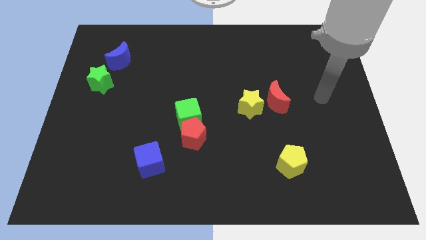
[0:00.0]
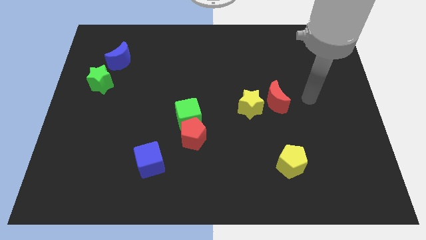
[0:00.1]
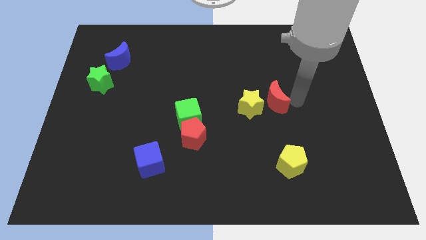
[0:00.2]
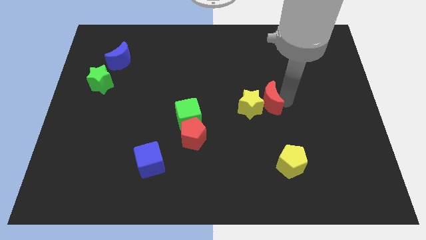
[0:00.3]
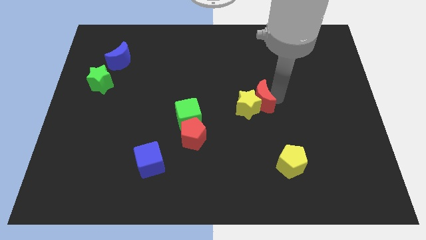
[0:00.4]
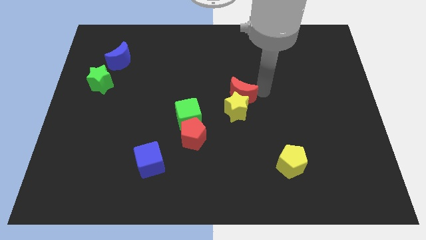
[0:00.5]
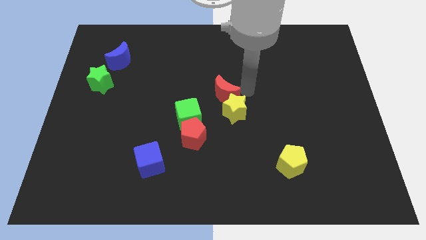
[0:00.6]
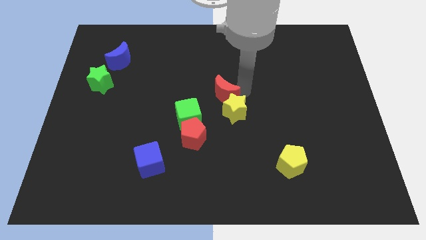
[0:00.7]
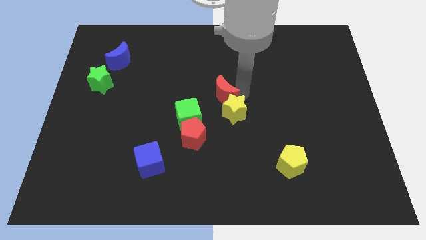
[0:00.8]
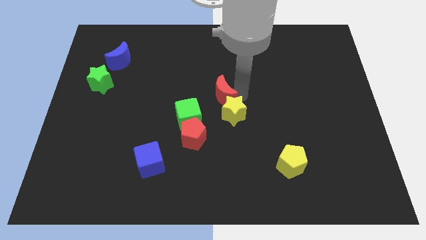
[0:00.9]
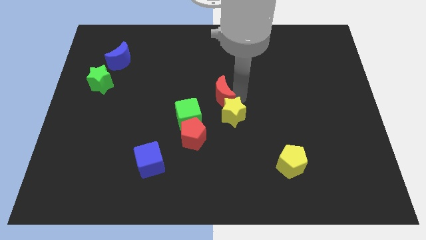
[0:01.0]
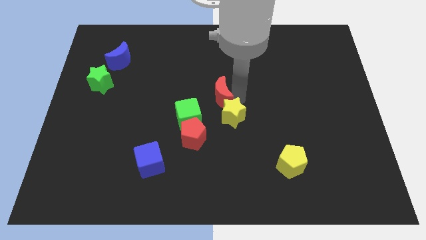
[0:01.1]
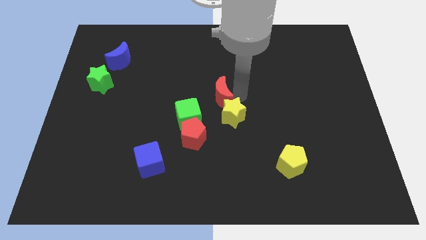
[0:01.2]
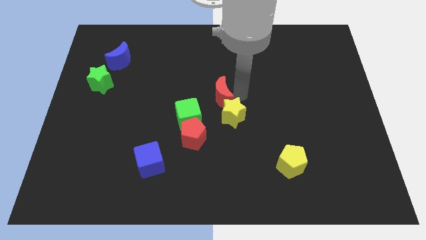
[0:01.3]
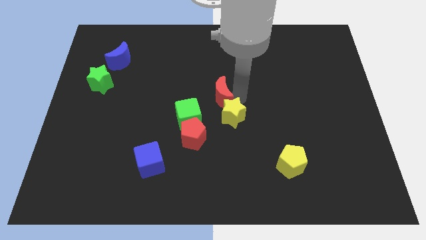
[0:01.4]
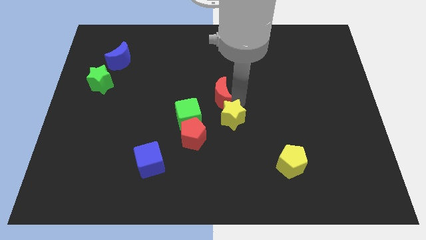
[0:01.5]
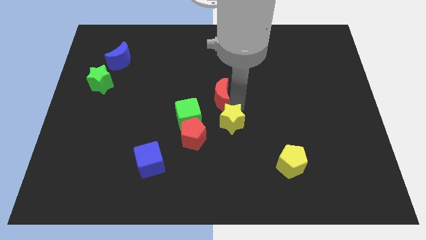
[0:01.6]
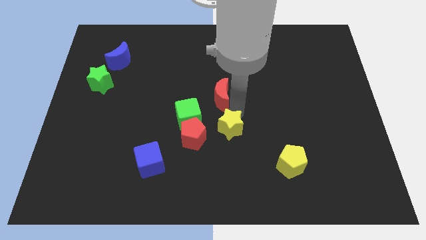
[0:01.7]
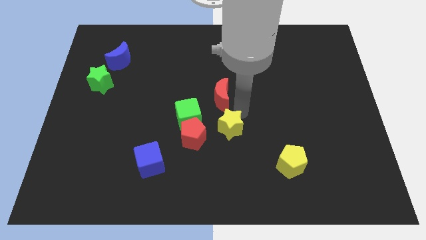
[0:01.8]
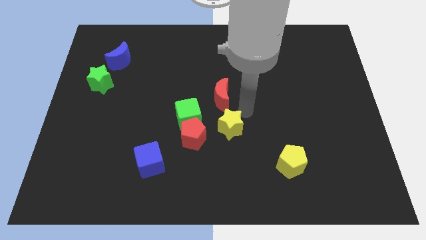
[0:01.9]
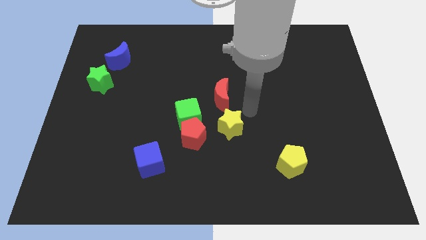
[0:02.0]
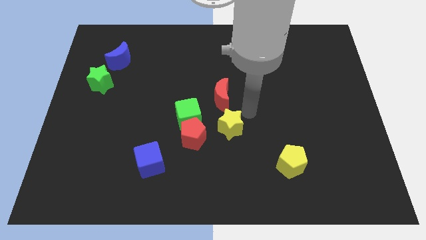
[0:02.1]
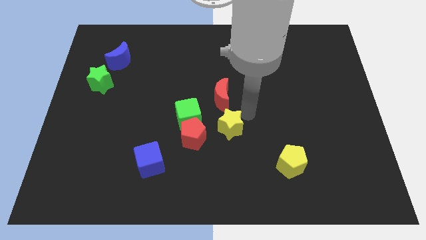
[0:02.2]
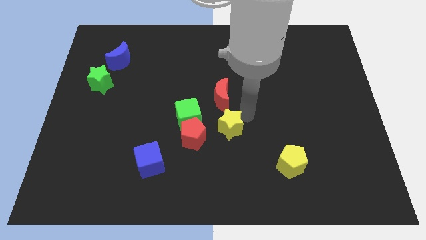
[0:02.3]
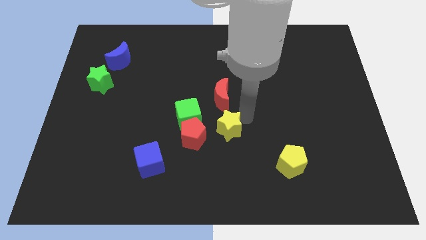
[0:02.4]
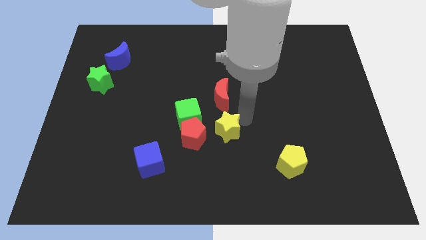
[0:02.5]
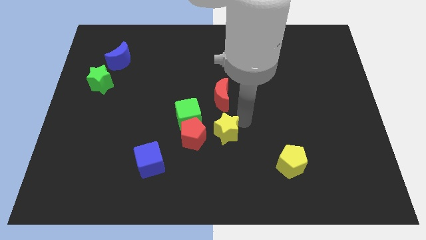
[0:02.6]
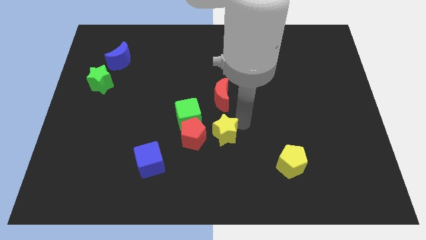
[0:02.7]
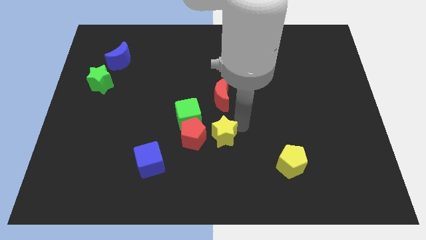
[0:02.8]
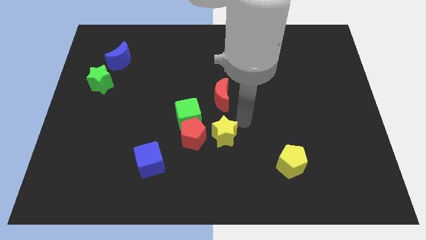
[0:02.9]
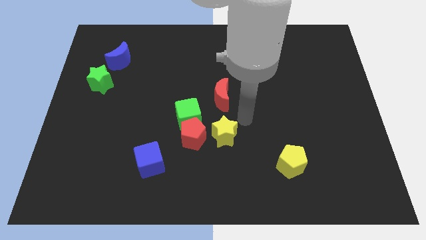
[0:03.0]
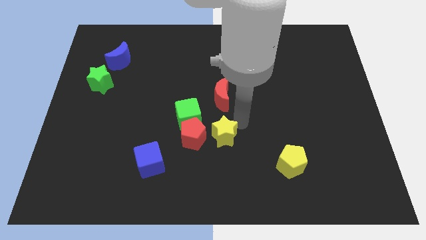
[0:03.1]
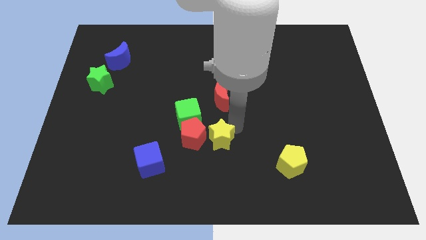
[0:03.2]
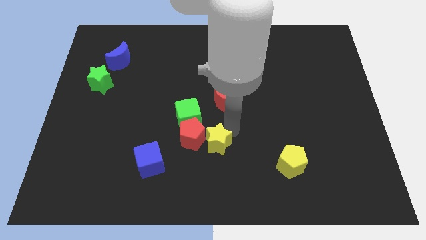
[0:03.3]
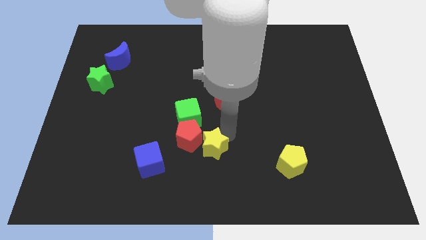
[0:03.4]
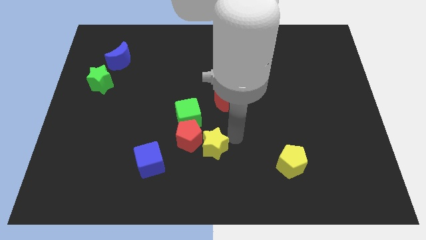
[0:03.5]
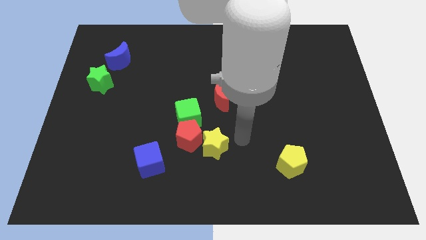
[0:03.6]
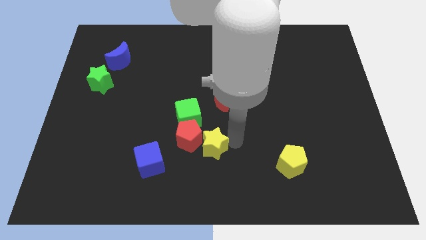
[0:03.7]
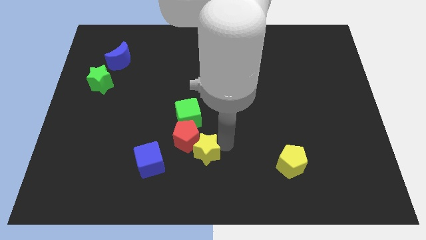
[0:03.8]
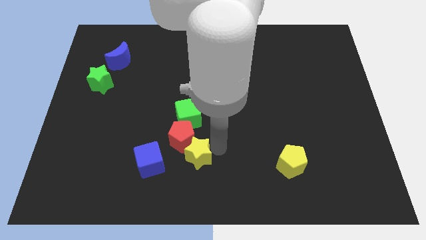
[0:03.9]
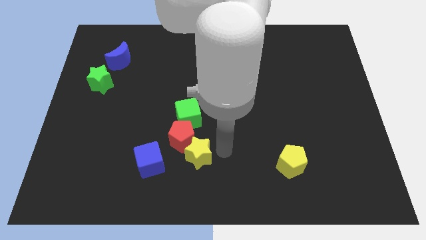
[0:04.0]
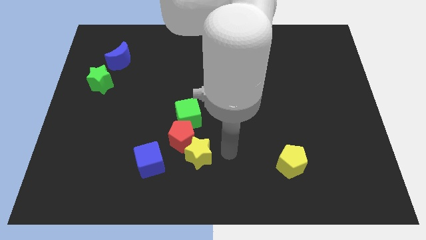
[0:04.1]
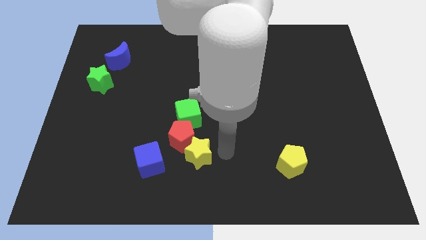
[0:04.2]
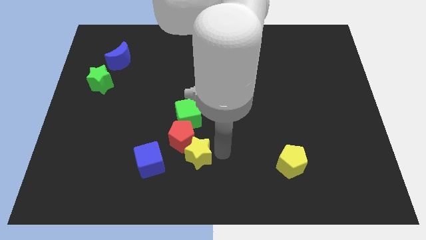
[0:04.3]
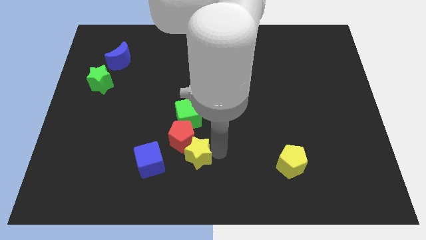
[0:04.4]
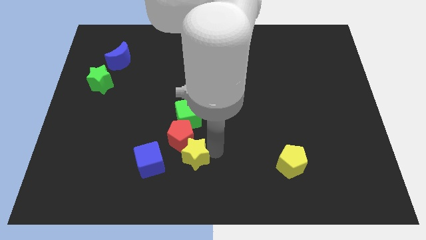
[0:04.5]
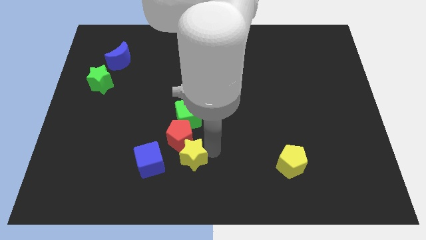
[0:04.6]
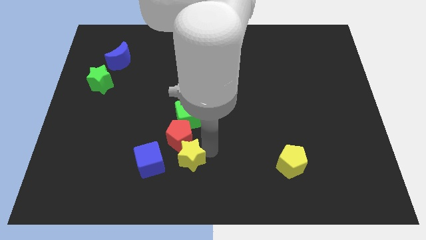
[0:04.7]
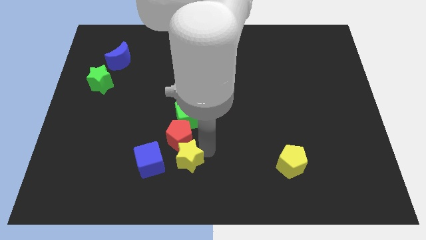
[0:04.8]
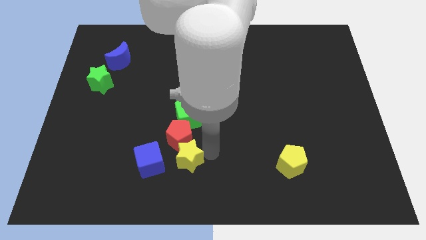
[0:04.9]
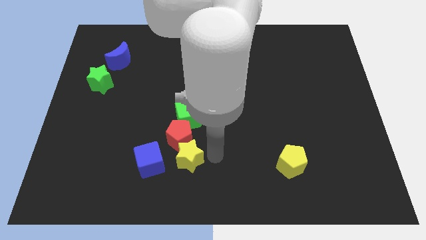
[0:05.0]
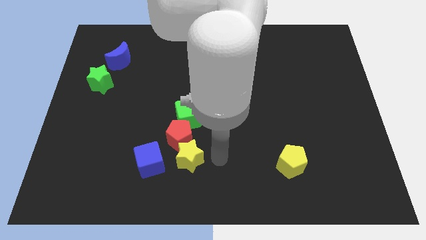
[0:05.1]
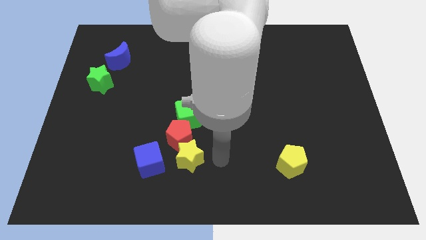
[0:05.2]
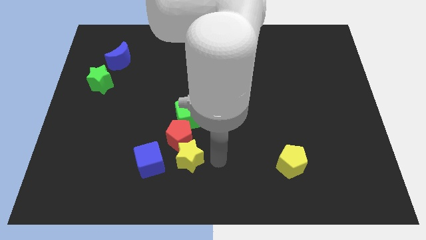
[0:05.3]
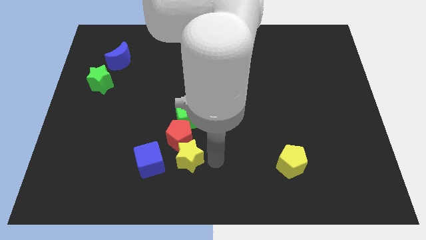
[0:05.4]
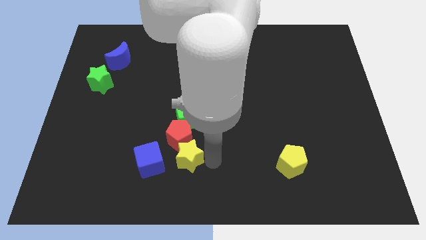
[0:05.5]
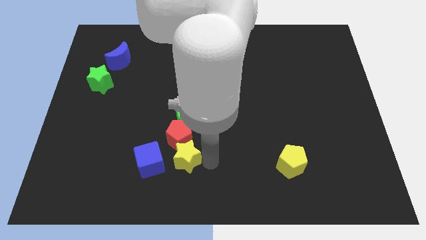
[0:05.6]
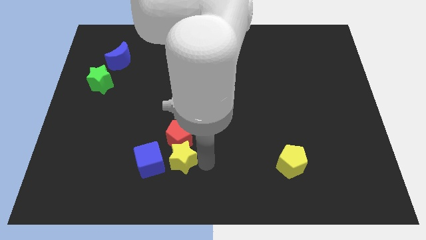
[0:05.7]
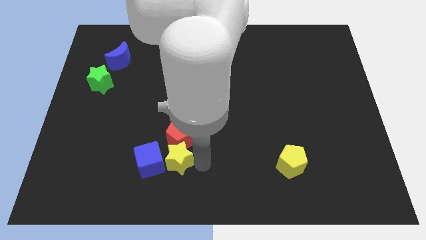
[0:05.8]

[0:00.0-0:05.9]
put the yellow star next to the blue cube
